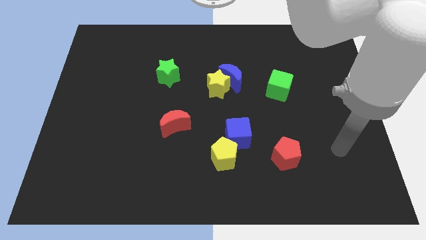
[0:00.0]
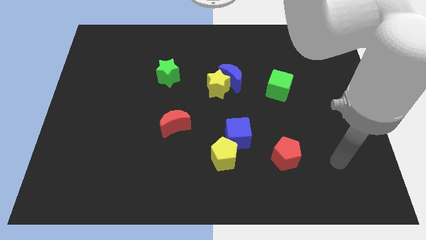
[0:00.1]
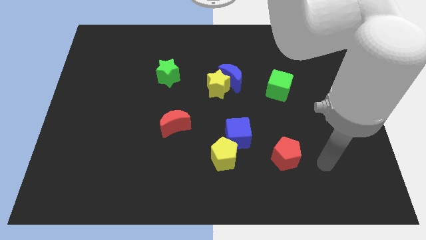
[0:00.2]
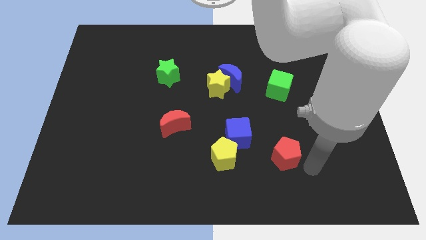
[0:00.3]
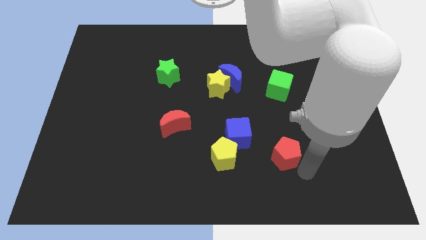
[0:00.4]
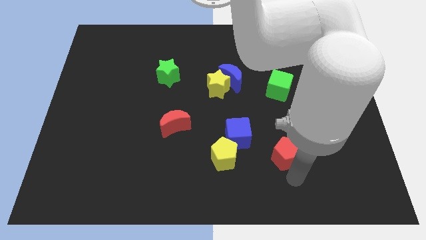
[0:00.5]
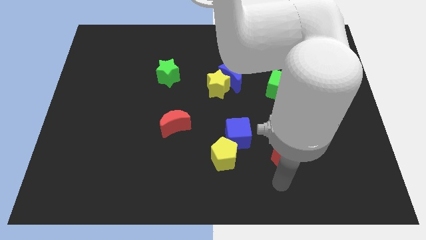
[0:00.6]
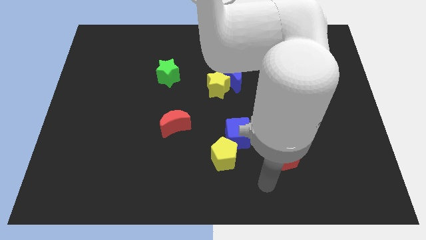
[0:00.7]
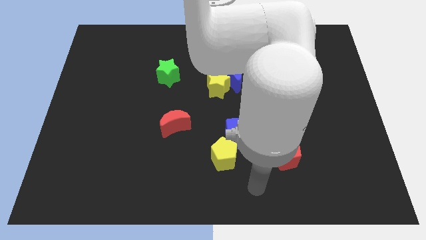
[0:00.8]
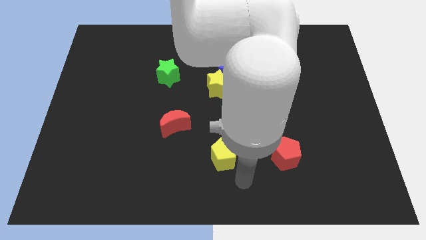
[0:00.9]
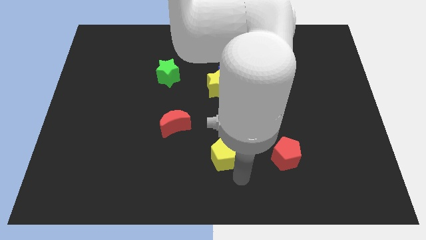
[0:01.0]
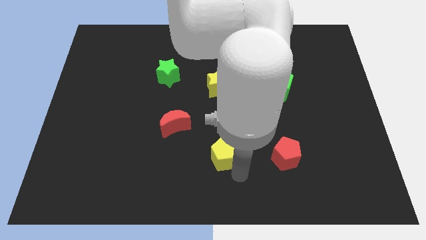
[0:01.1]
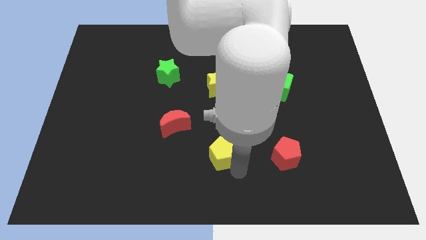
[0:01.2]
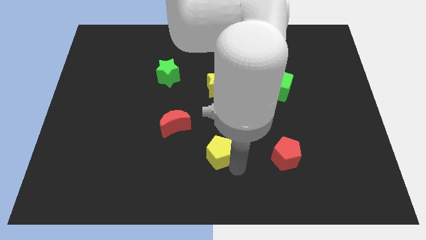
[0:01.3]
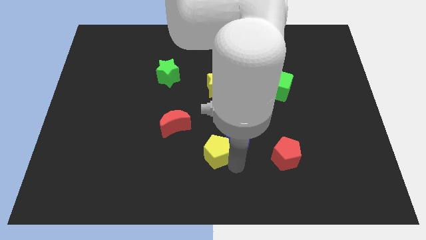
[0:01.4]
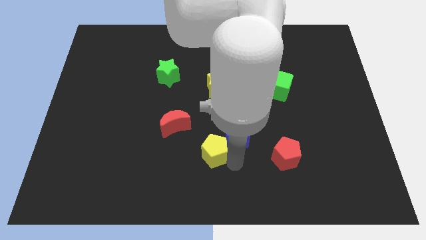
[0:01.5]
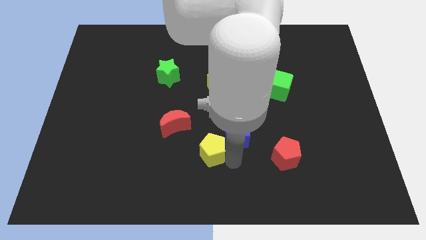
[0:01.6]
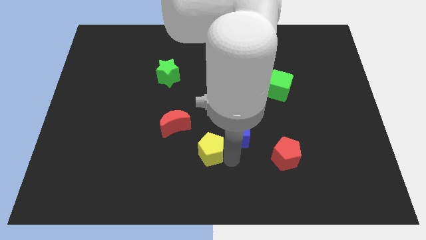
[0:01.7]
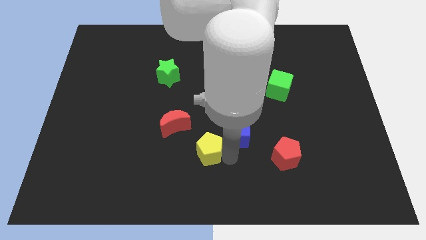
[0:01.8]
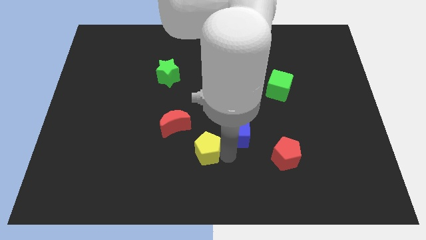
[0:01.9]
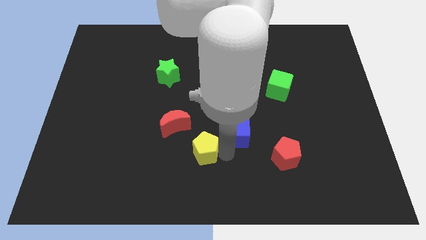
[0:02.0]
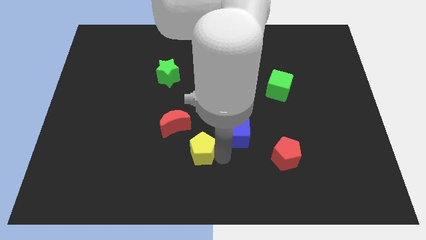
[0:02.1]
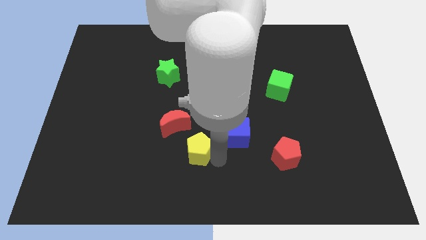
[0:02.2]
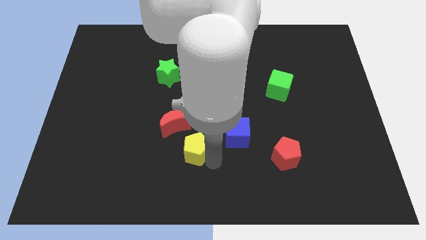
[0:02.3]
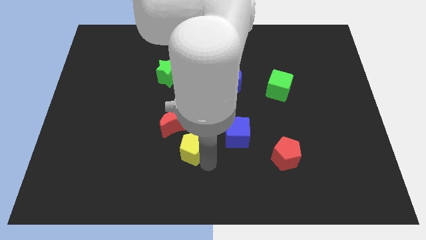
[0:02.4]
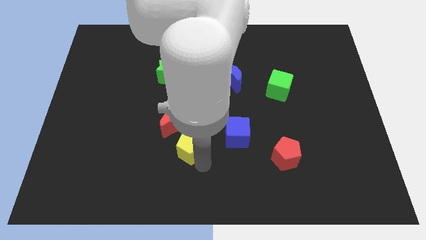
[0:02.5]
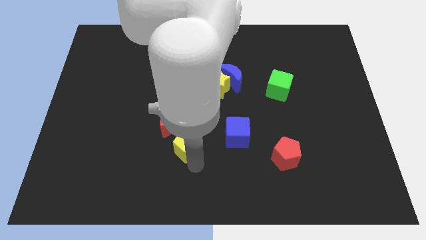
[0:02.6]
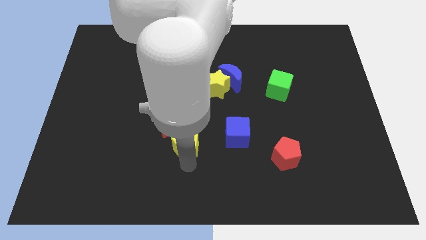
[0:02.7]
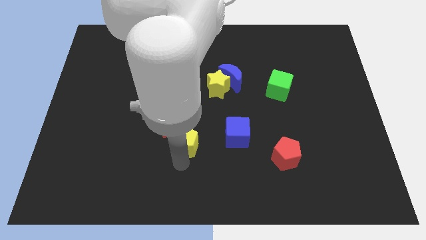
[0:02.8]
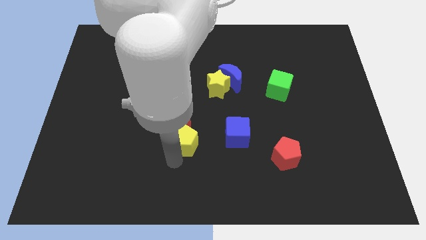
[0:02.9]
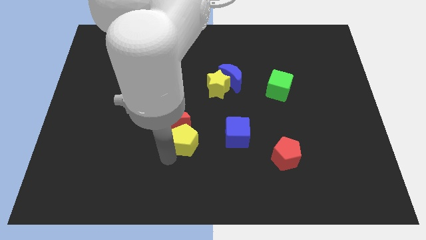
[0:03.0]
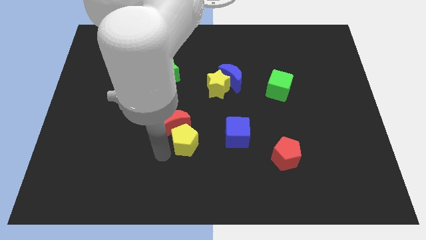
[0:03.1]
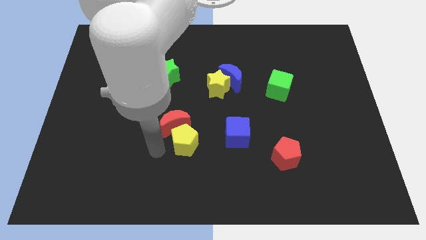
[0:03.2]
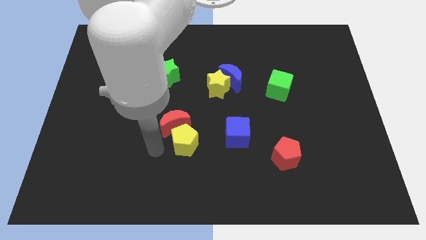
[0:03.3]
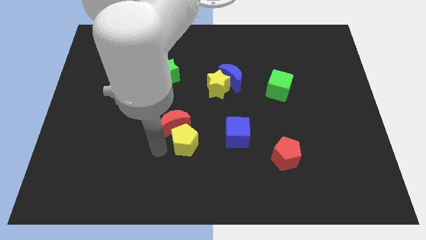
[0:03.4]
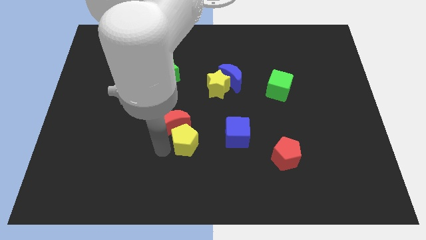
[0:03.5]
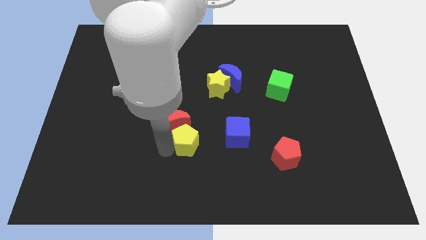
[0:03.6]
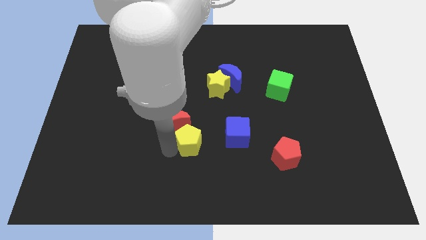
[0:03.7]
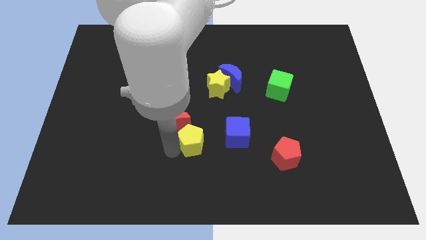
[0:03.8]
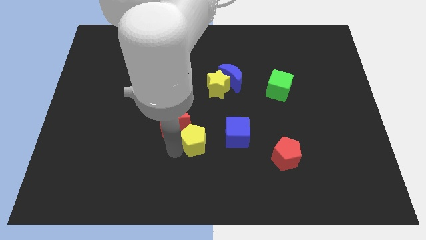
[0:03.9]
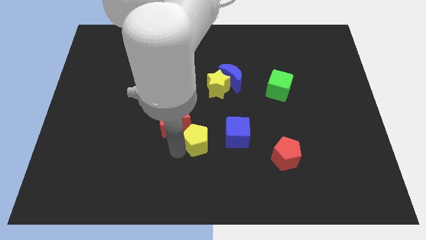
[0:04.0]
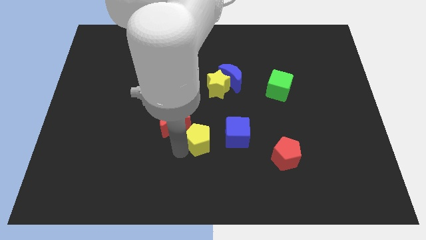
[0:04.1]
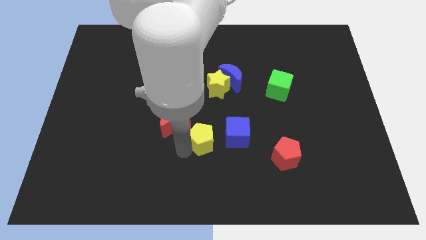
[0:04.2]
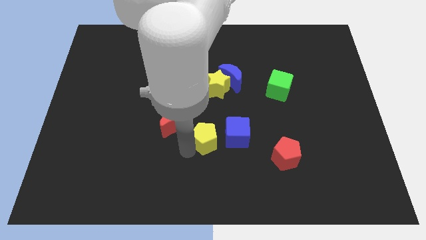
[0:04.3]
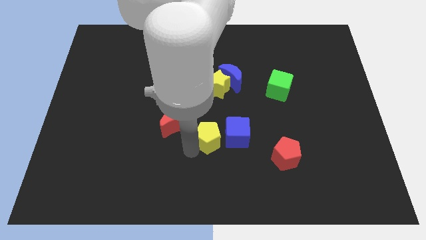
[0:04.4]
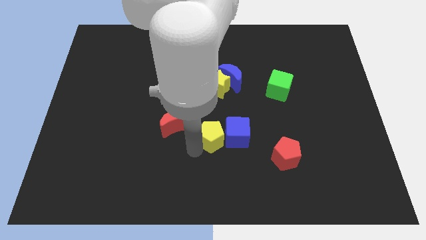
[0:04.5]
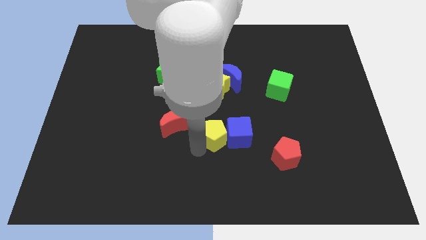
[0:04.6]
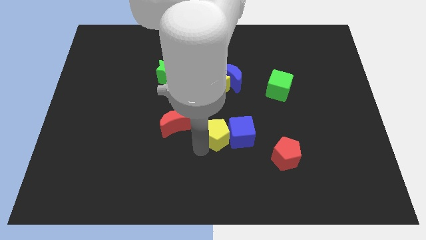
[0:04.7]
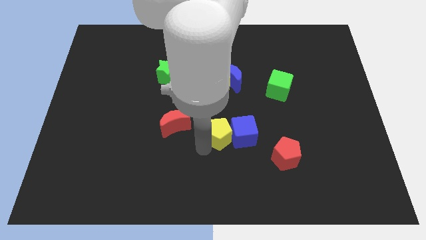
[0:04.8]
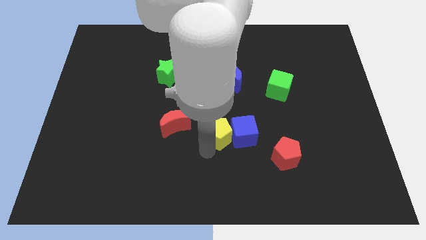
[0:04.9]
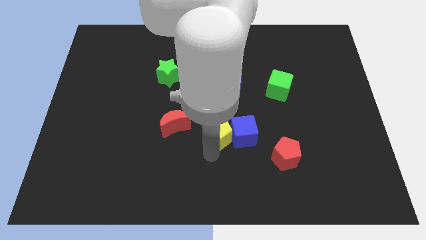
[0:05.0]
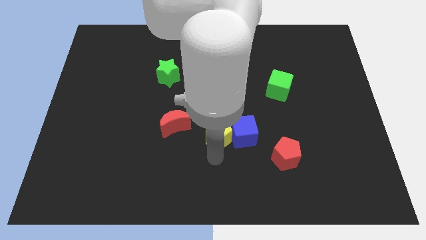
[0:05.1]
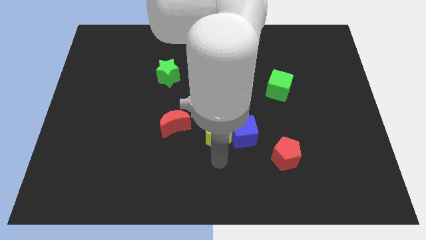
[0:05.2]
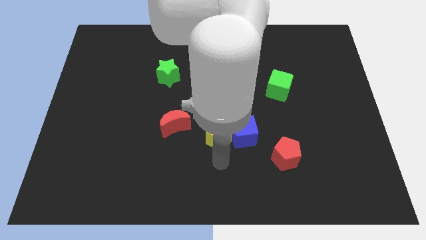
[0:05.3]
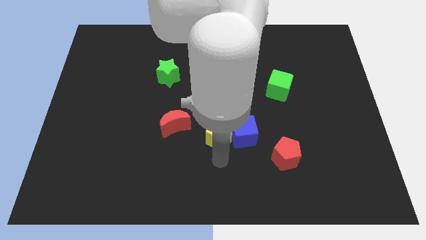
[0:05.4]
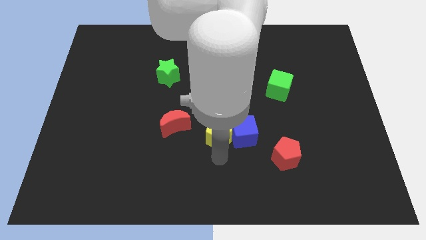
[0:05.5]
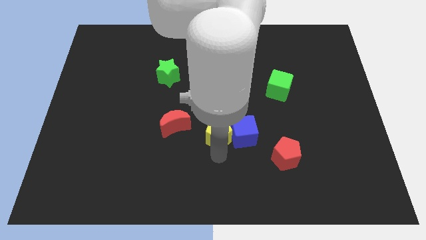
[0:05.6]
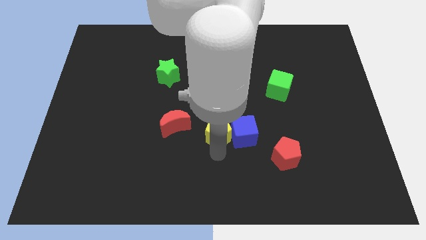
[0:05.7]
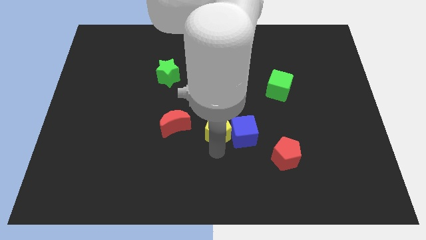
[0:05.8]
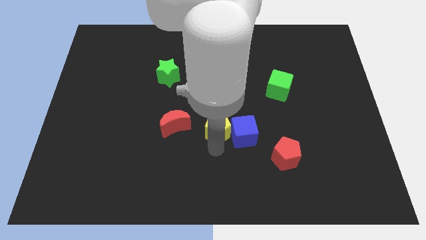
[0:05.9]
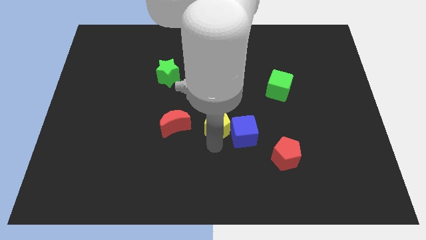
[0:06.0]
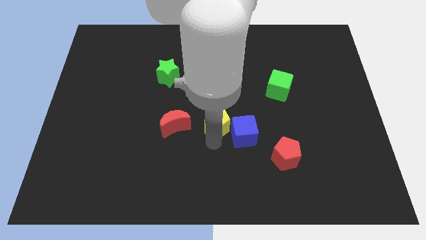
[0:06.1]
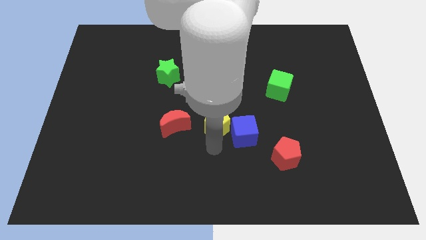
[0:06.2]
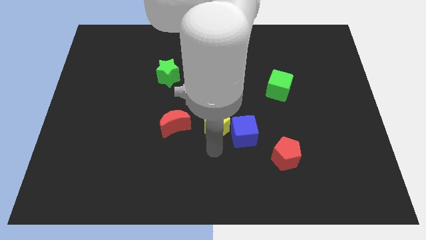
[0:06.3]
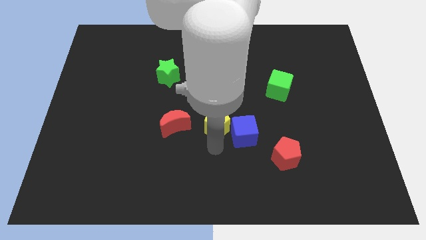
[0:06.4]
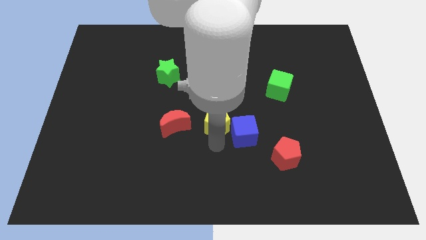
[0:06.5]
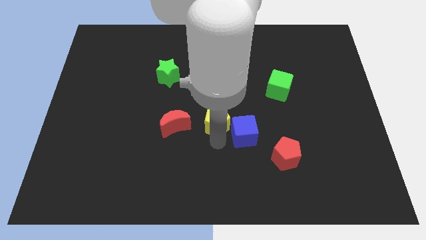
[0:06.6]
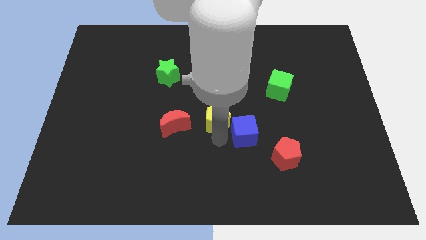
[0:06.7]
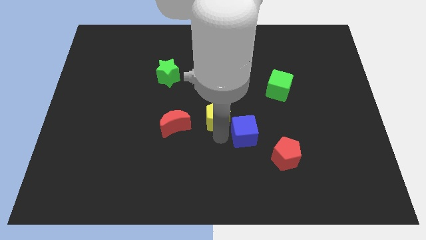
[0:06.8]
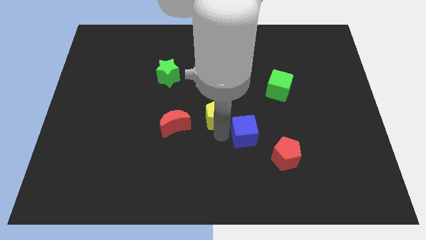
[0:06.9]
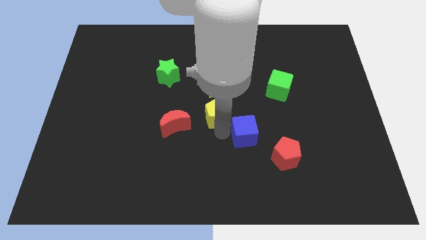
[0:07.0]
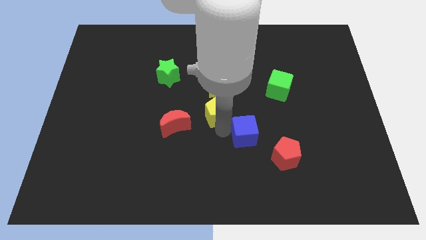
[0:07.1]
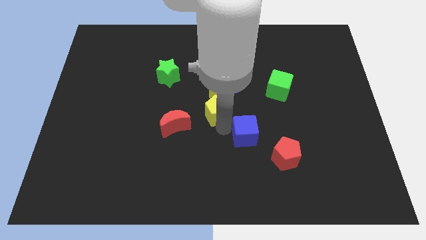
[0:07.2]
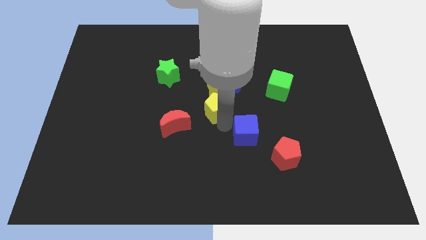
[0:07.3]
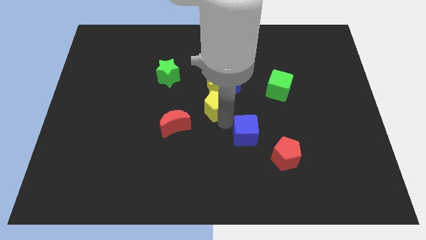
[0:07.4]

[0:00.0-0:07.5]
slide the yellow pentagon close to the yellow star
